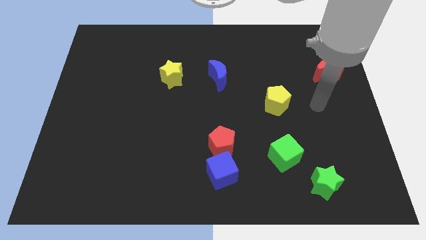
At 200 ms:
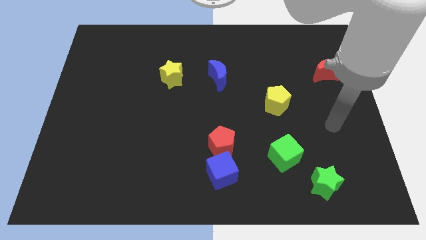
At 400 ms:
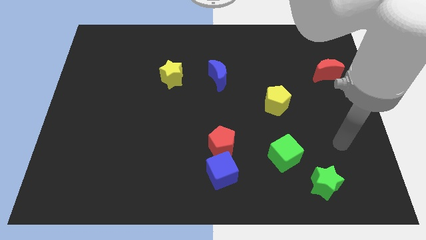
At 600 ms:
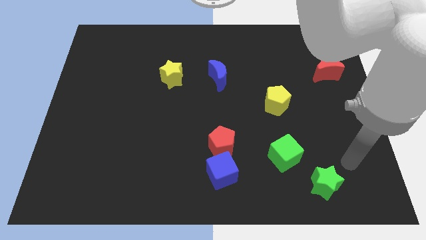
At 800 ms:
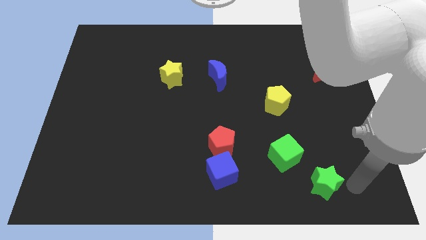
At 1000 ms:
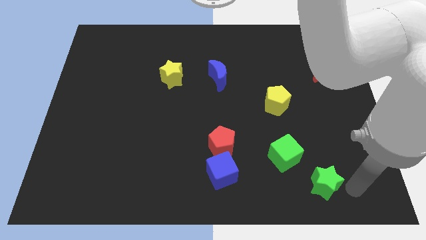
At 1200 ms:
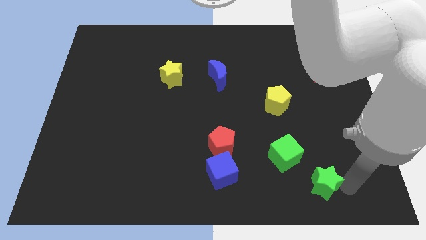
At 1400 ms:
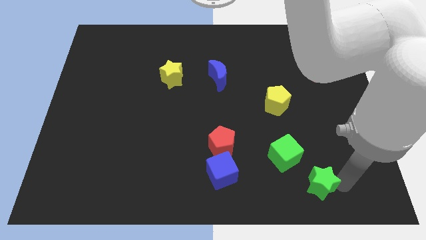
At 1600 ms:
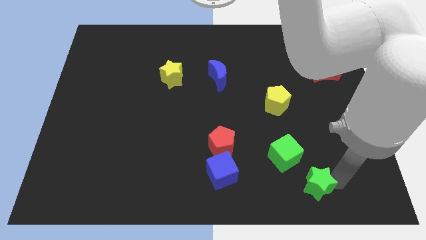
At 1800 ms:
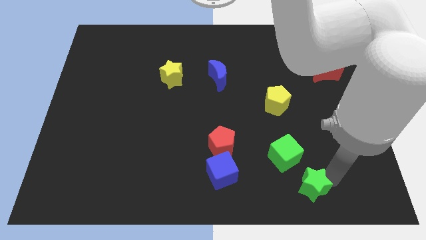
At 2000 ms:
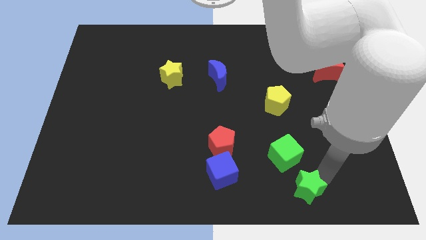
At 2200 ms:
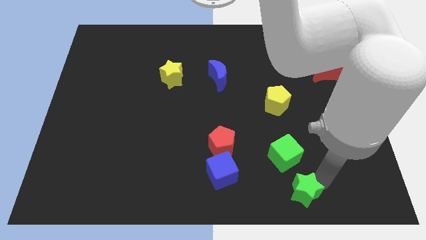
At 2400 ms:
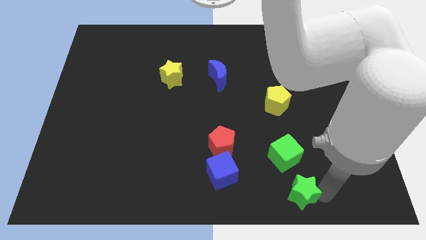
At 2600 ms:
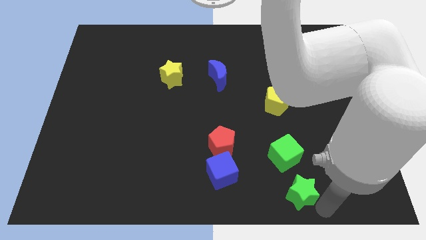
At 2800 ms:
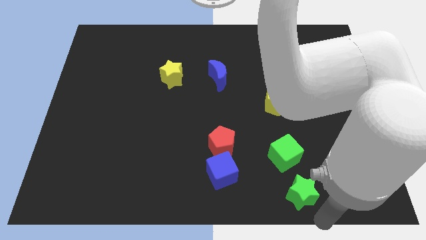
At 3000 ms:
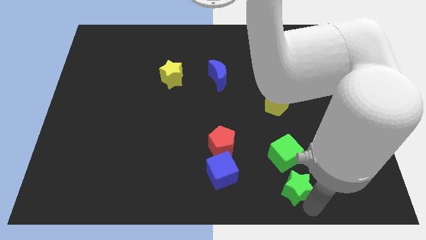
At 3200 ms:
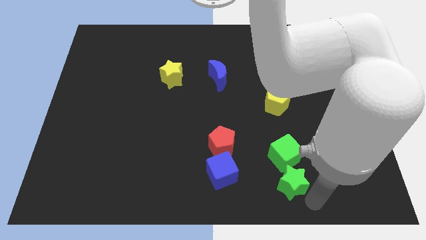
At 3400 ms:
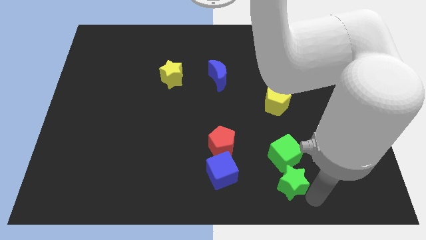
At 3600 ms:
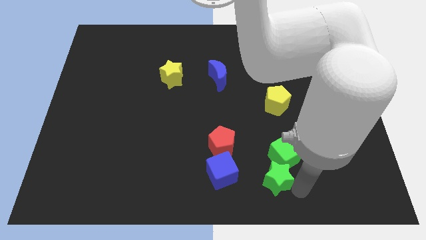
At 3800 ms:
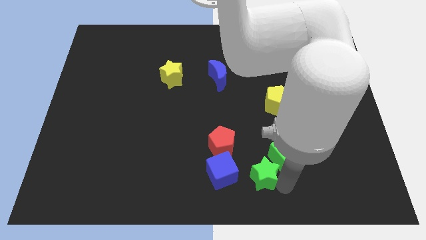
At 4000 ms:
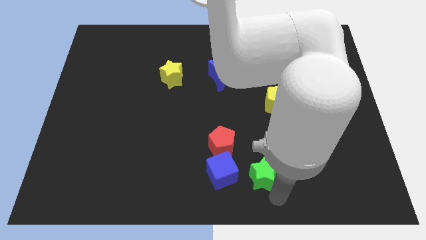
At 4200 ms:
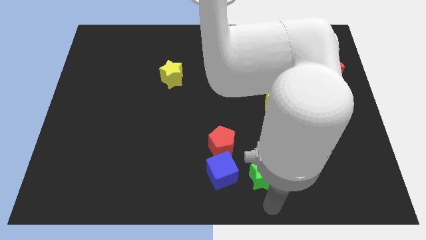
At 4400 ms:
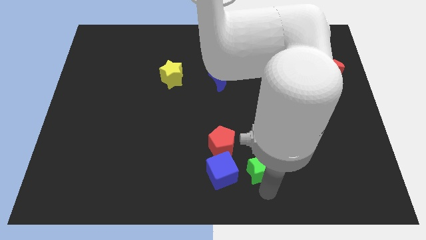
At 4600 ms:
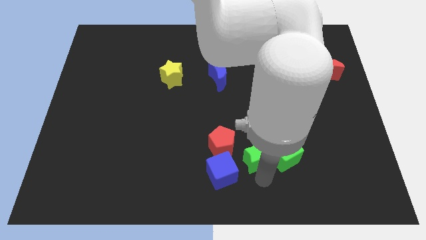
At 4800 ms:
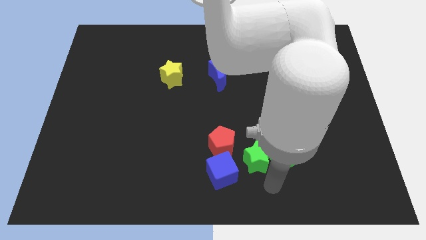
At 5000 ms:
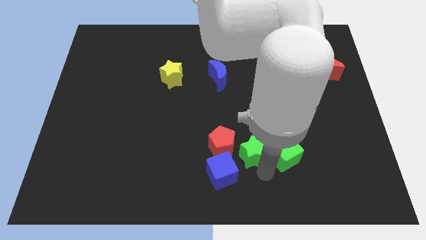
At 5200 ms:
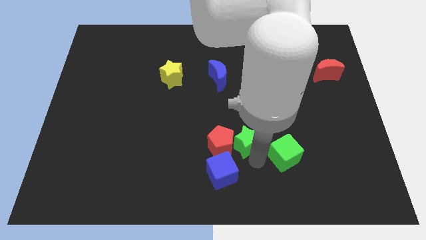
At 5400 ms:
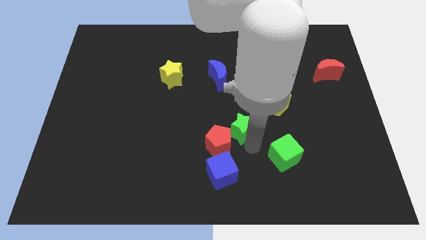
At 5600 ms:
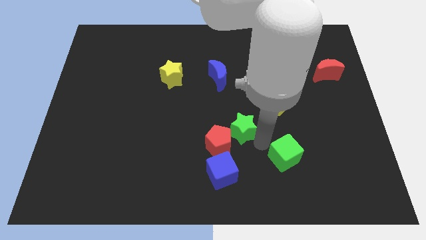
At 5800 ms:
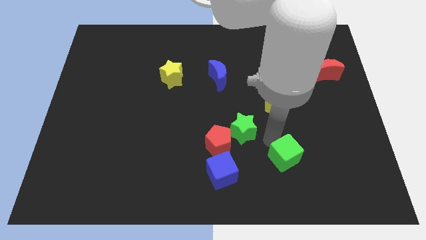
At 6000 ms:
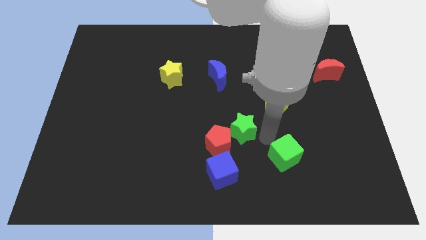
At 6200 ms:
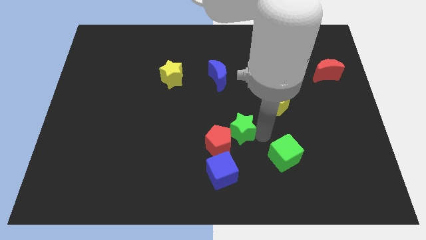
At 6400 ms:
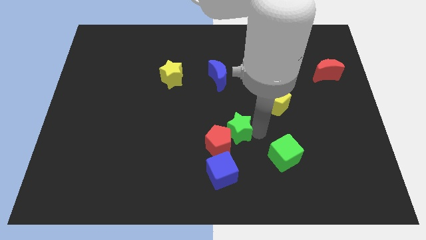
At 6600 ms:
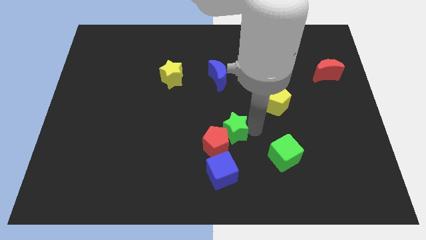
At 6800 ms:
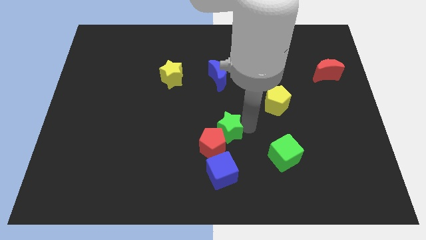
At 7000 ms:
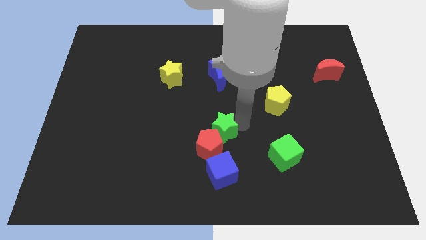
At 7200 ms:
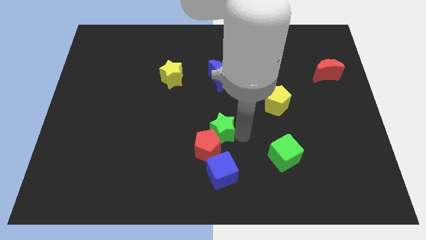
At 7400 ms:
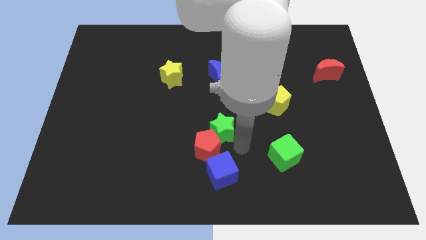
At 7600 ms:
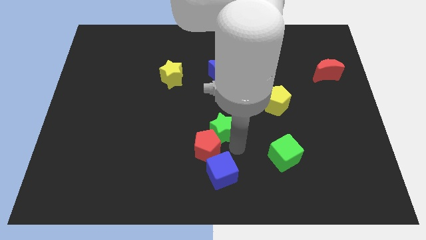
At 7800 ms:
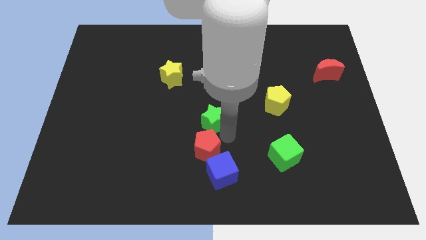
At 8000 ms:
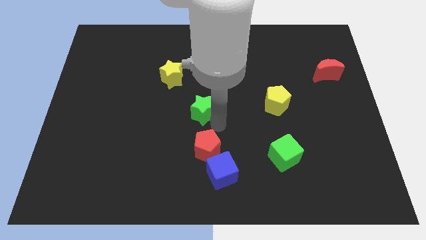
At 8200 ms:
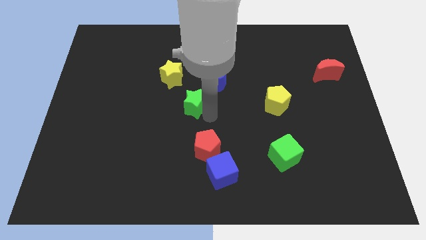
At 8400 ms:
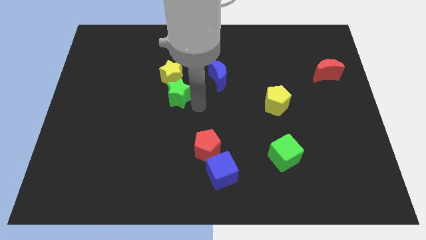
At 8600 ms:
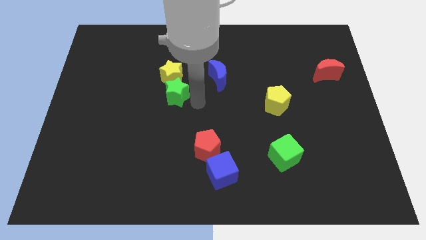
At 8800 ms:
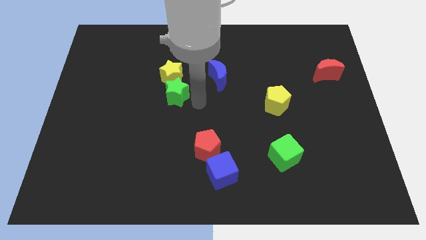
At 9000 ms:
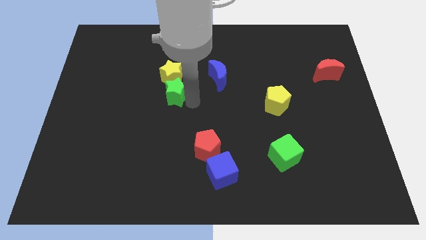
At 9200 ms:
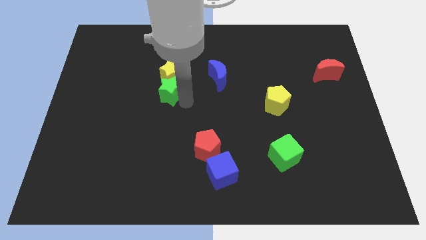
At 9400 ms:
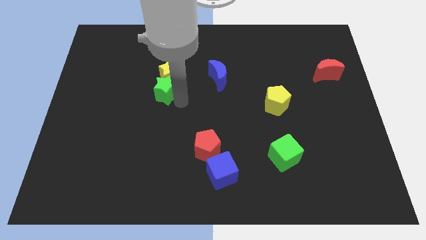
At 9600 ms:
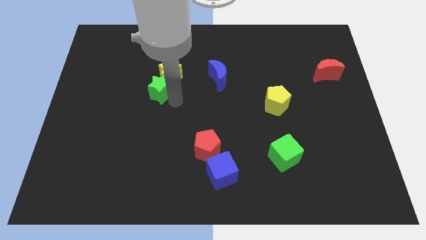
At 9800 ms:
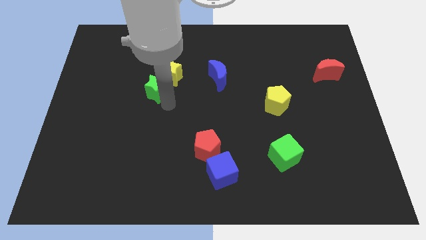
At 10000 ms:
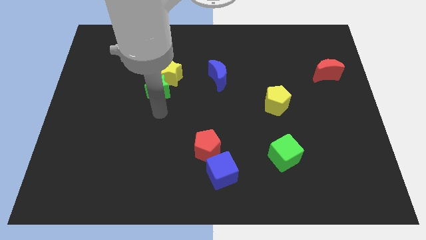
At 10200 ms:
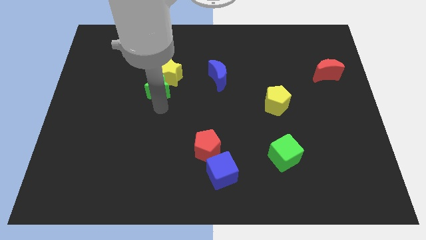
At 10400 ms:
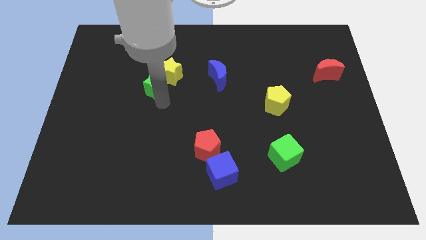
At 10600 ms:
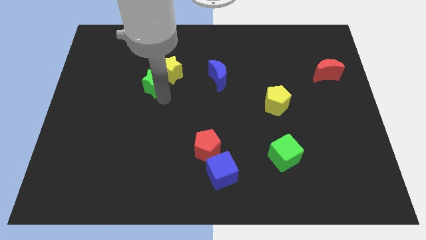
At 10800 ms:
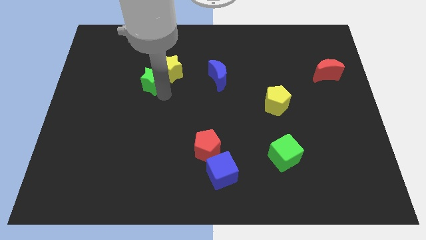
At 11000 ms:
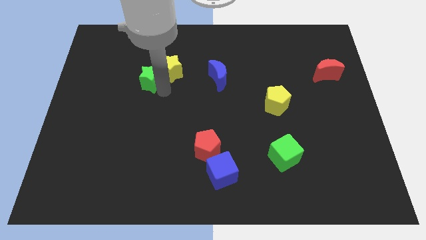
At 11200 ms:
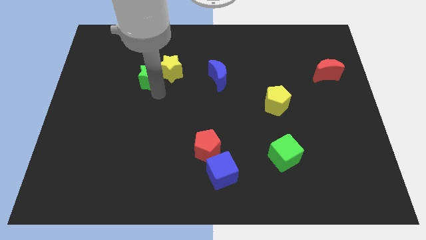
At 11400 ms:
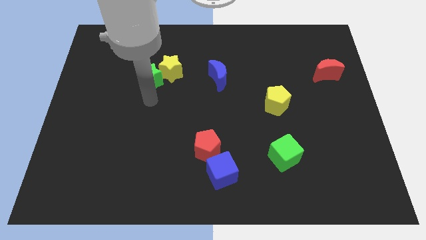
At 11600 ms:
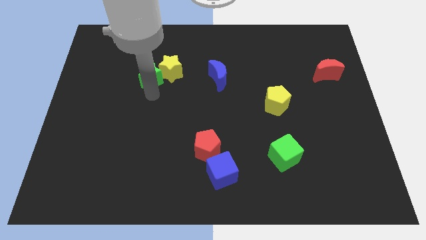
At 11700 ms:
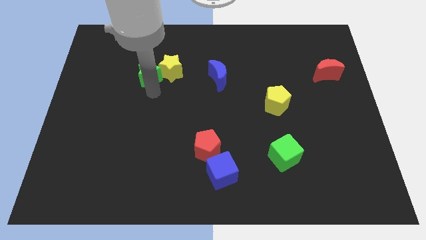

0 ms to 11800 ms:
slide the green star diagonally up and to the left of the yellow star
